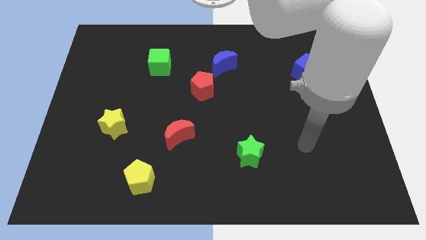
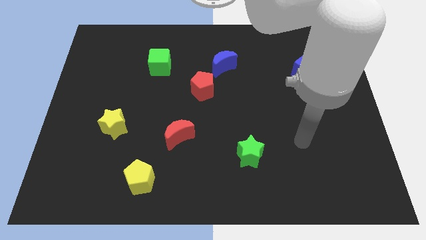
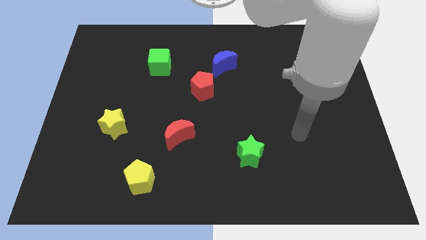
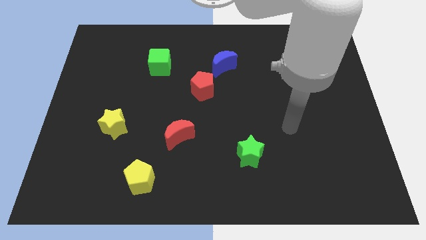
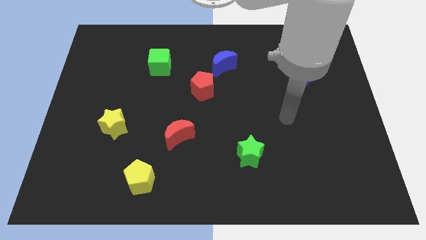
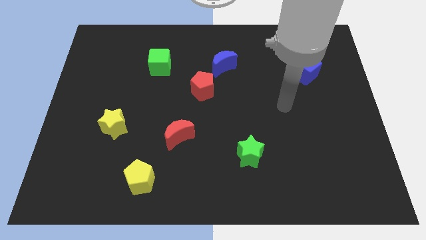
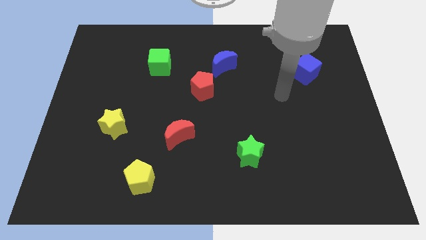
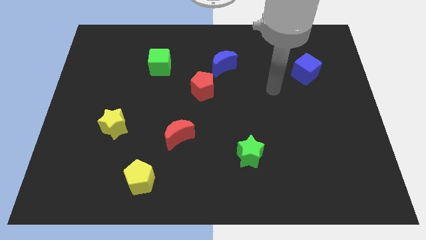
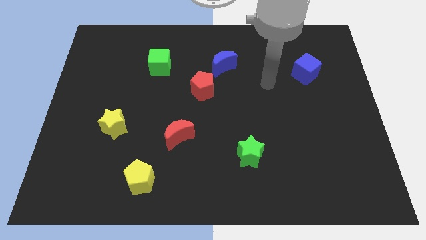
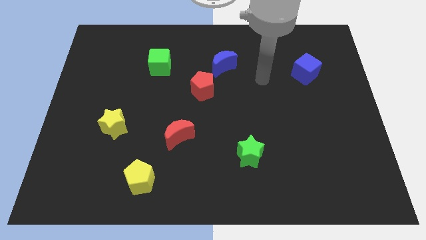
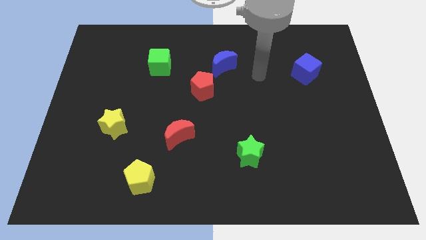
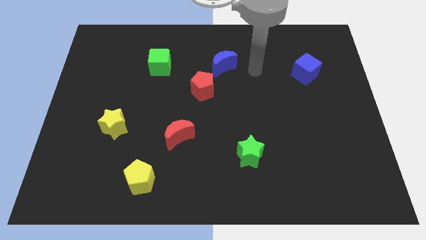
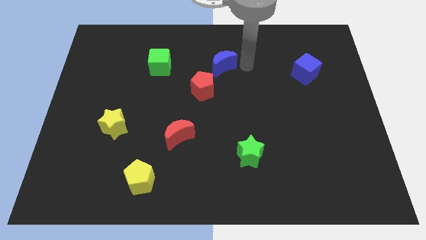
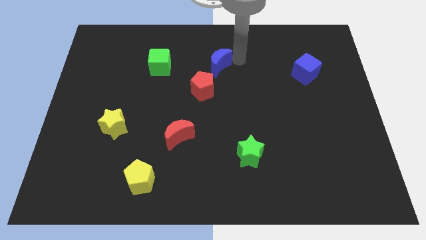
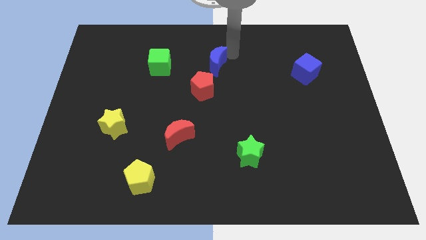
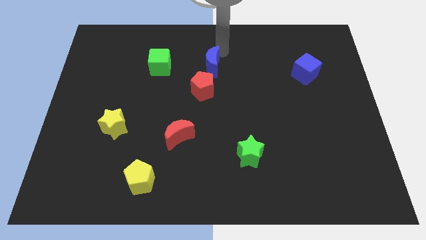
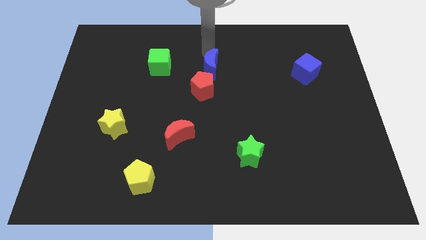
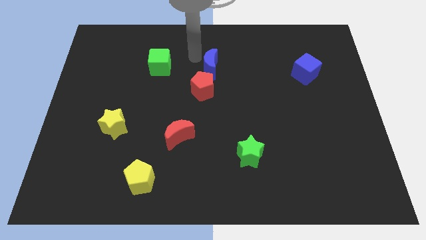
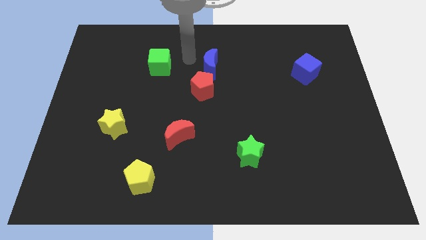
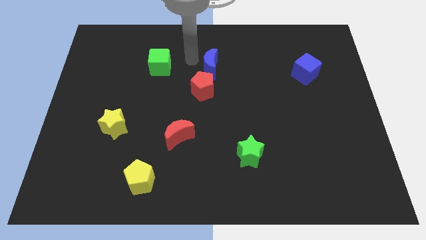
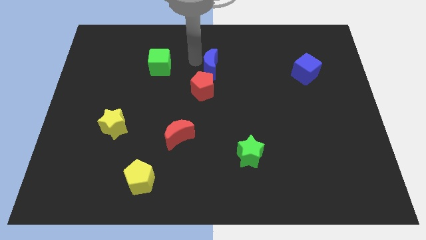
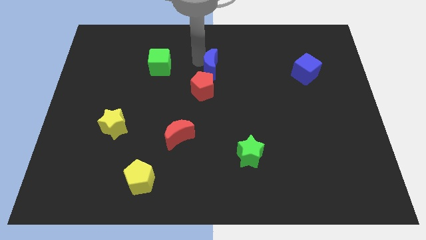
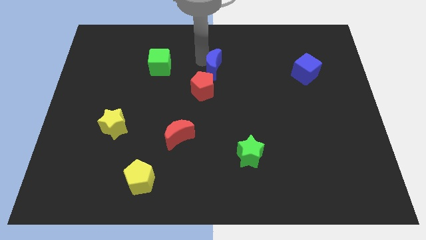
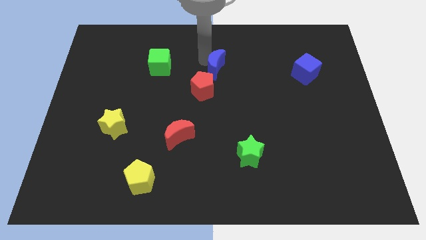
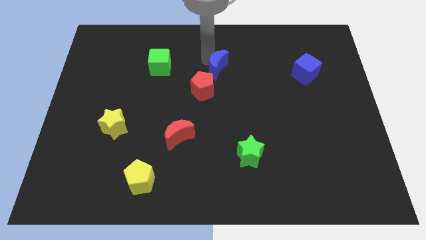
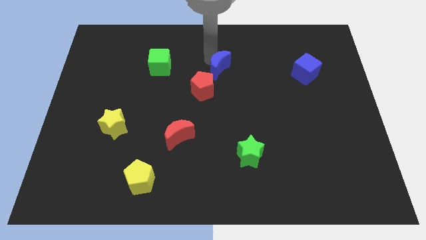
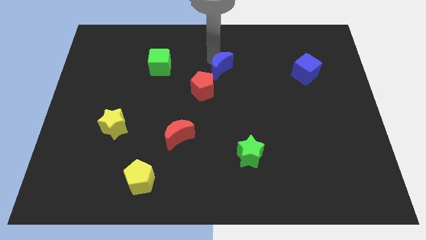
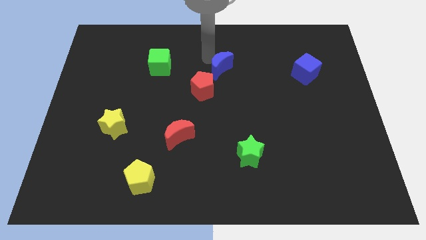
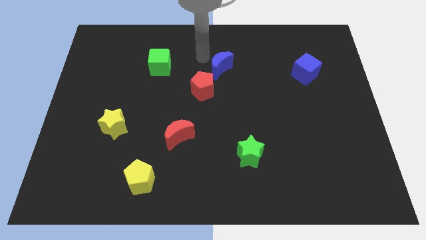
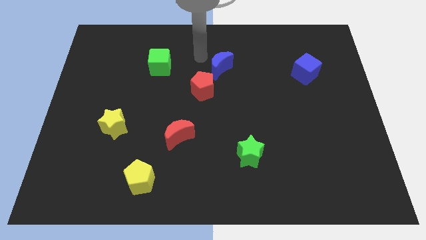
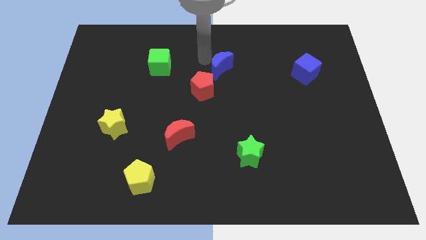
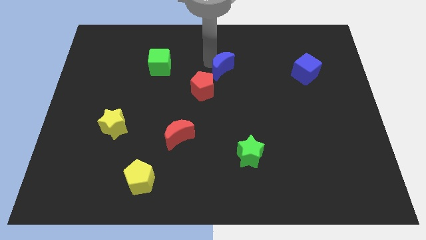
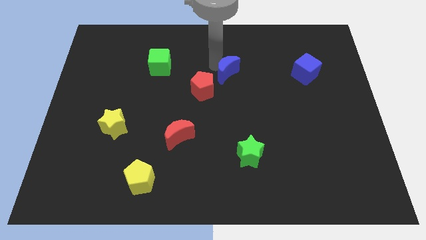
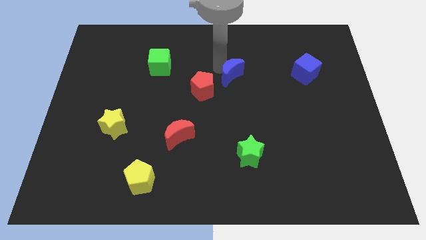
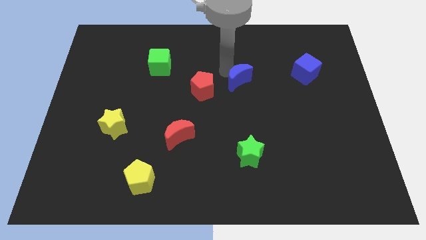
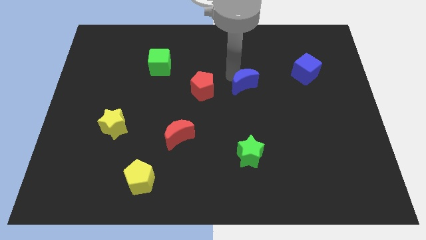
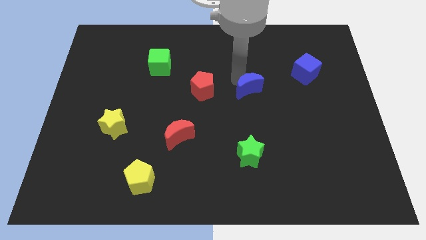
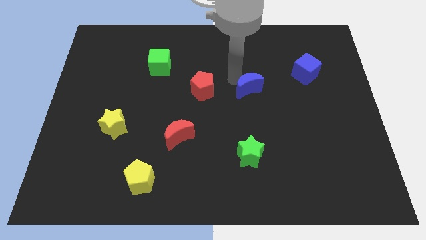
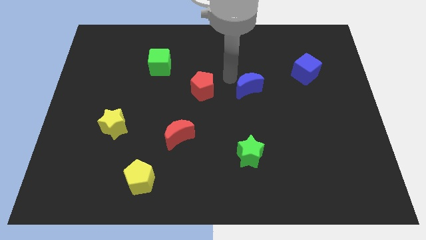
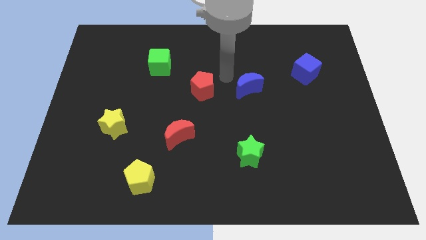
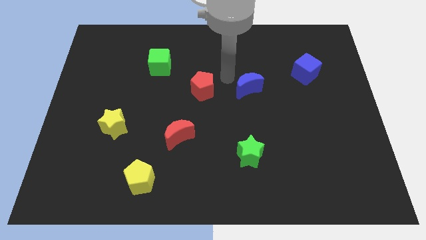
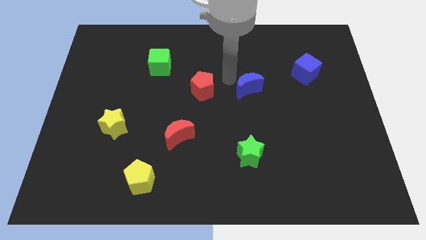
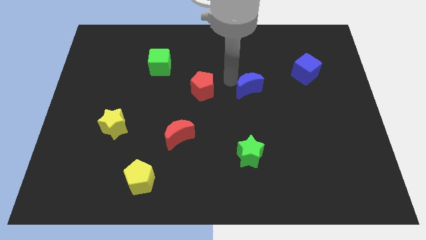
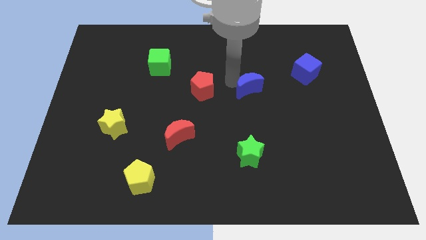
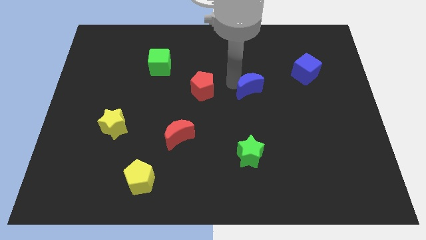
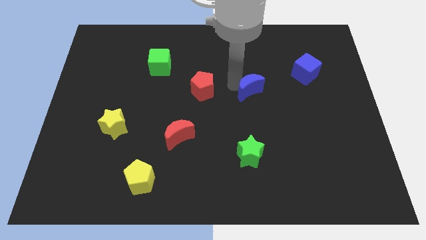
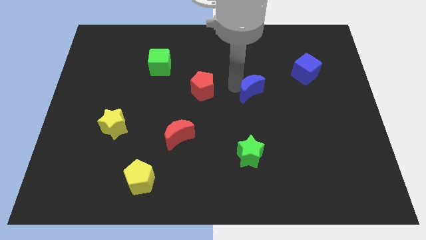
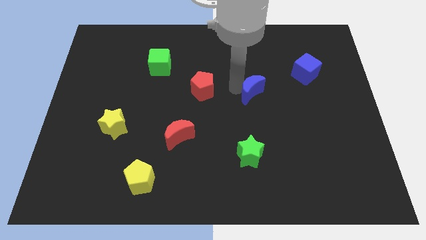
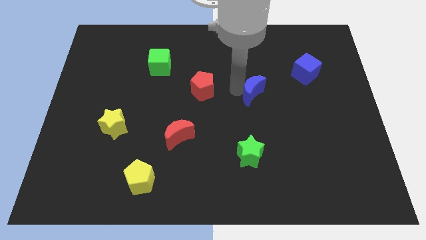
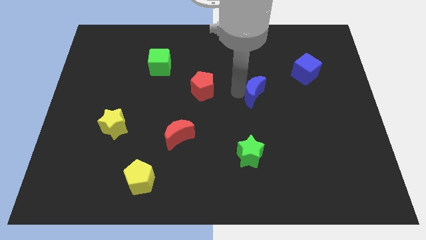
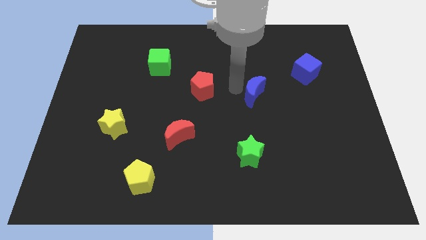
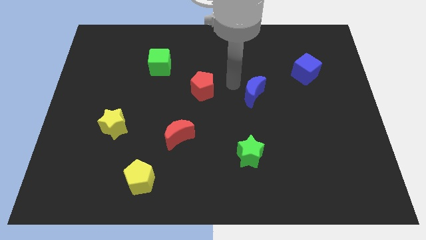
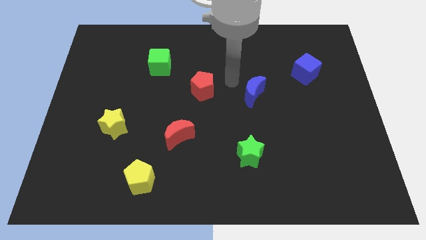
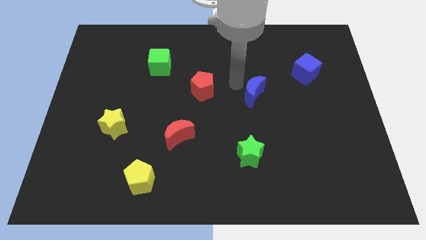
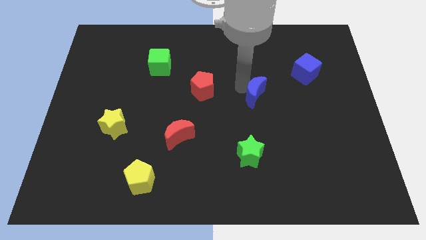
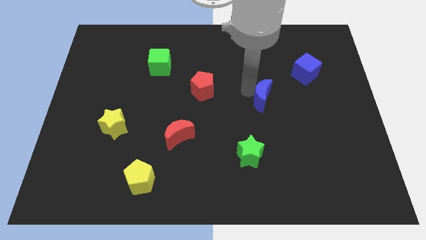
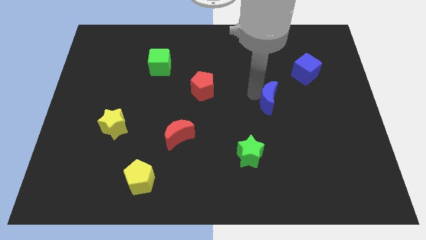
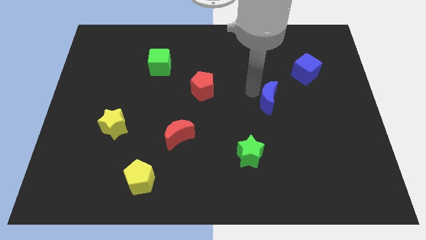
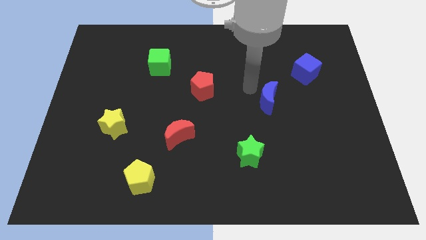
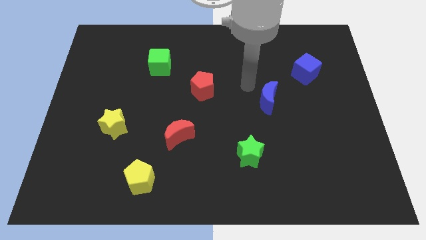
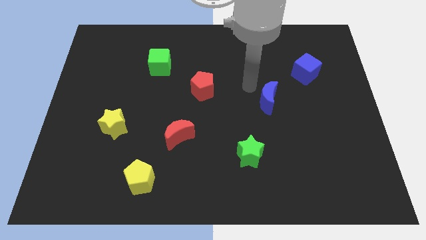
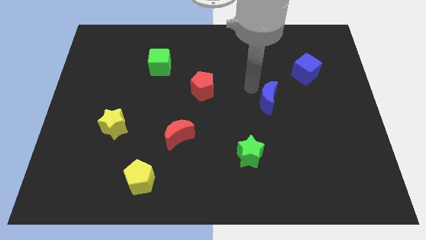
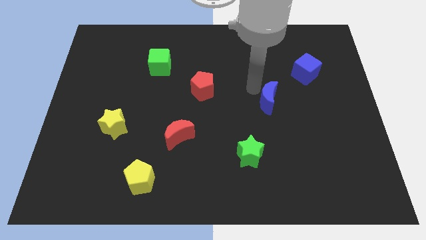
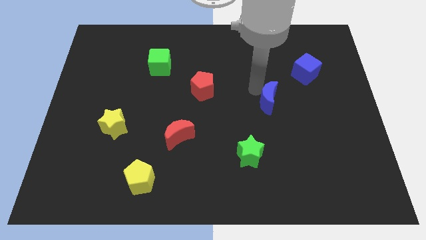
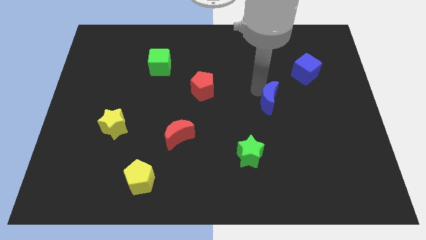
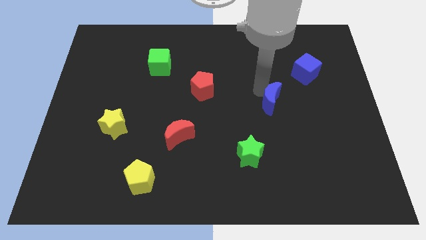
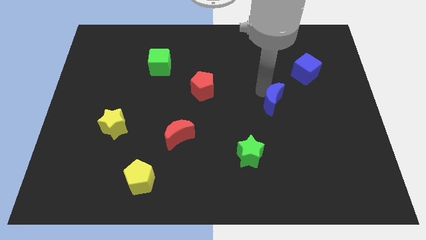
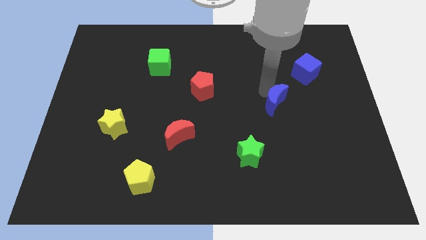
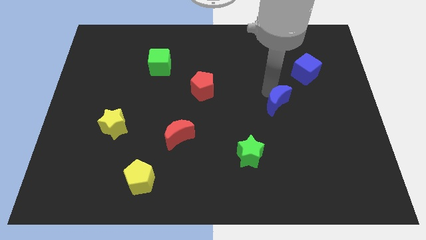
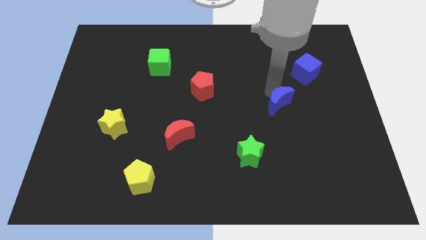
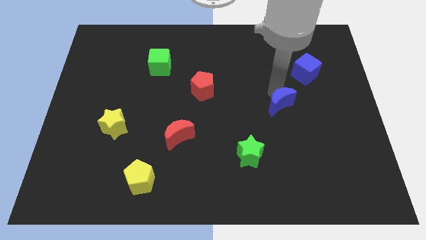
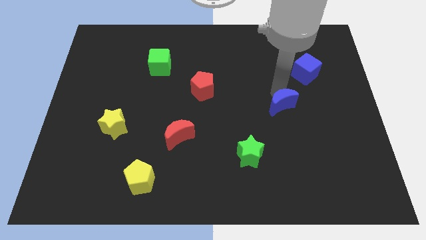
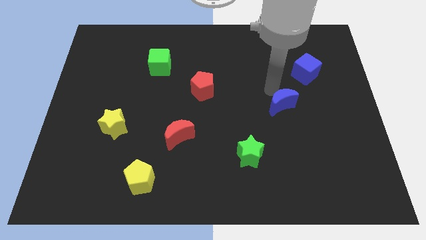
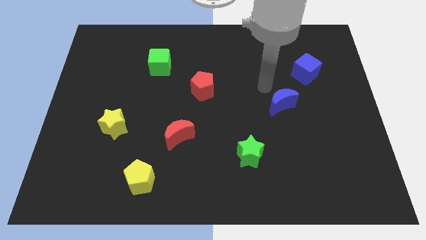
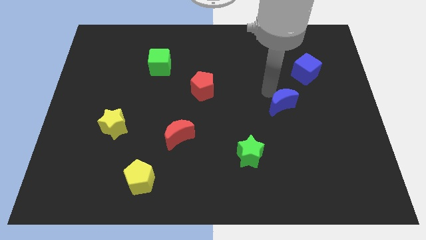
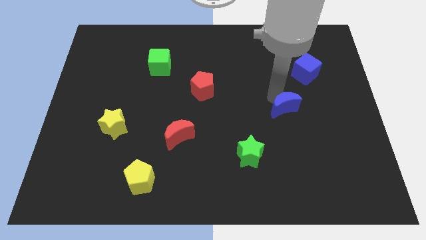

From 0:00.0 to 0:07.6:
move the blue moon down and then to the right

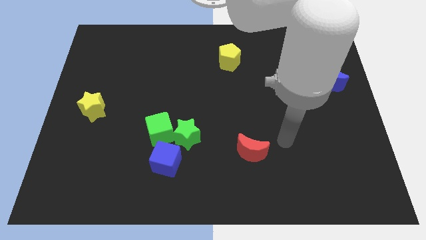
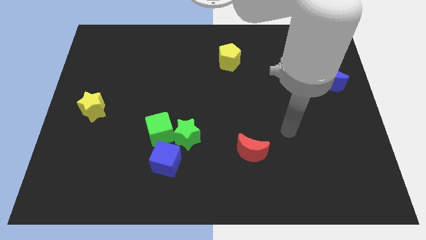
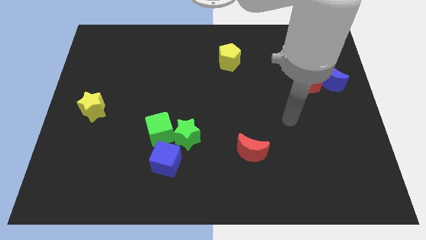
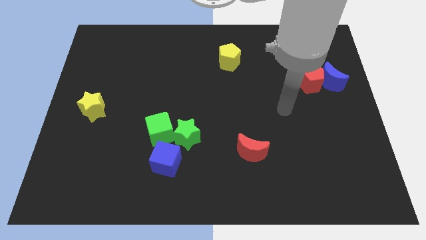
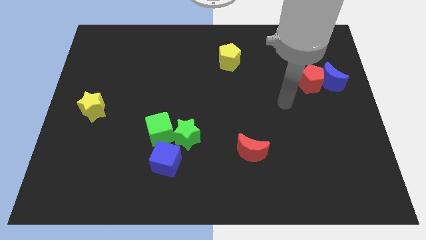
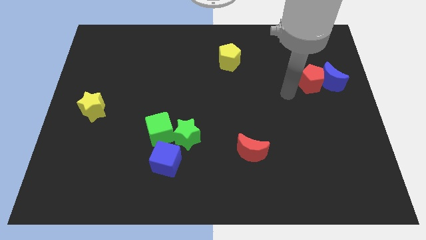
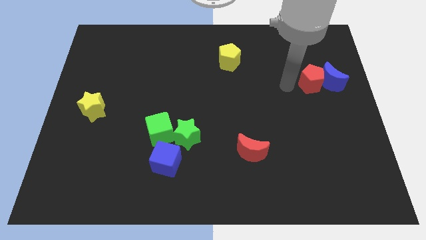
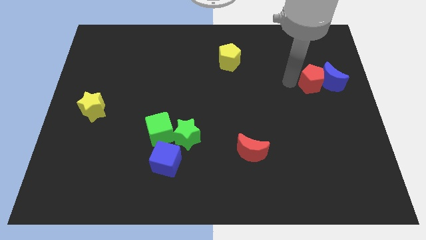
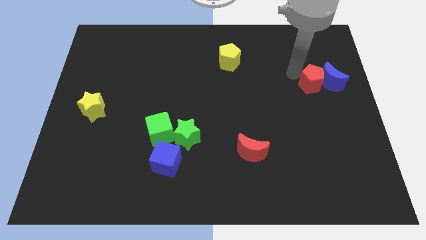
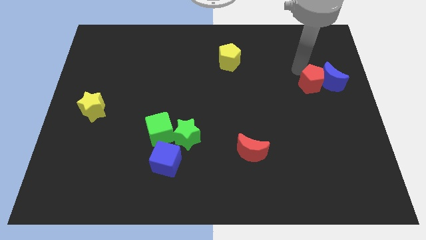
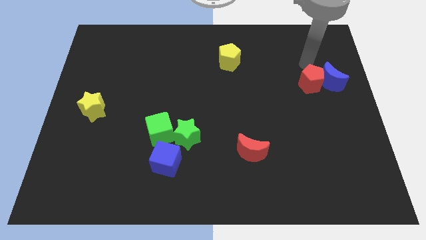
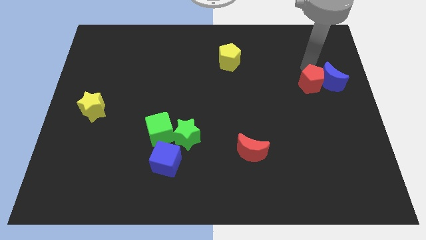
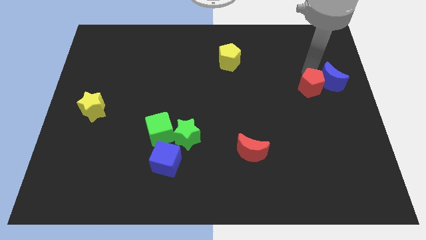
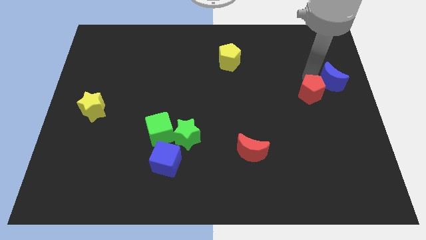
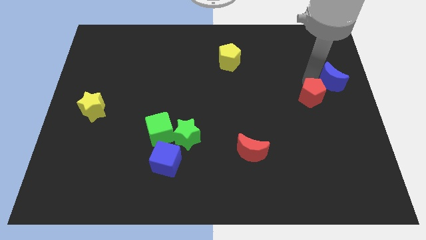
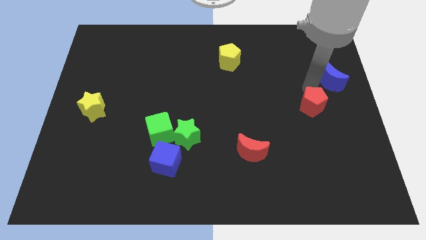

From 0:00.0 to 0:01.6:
slide the red pentagon downwards a bit
